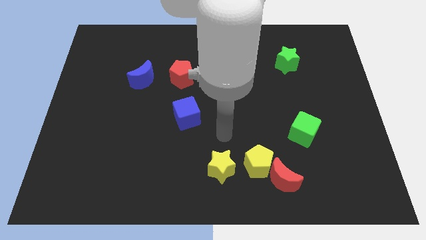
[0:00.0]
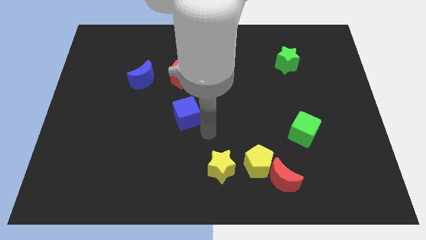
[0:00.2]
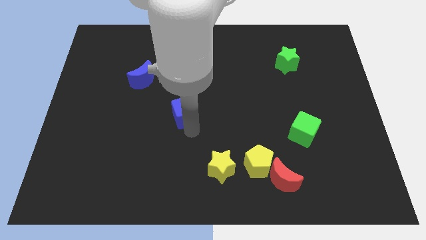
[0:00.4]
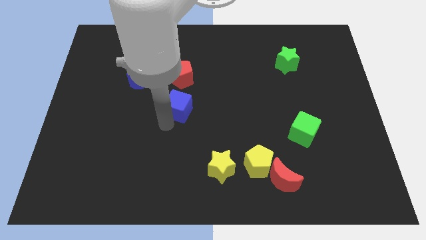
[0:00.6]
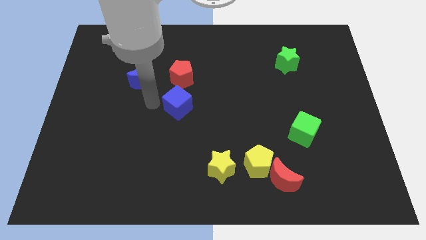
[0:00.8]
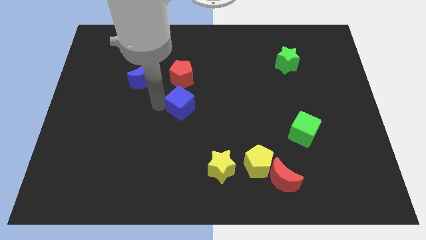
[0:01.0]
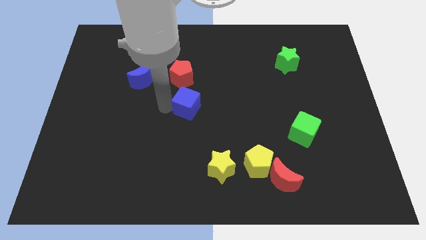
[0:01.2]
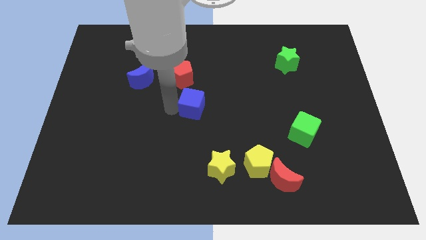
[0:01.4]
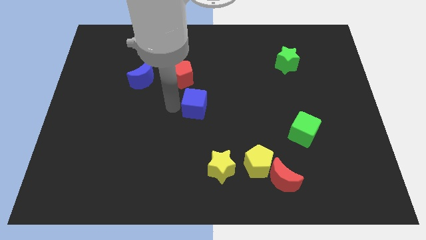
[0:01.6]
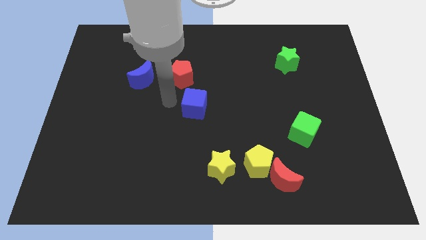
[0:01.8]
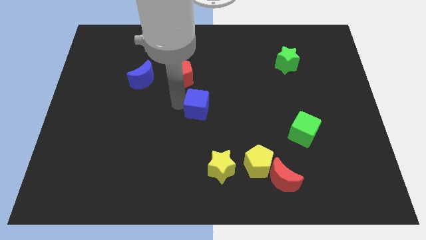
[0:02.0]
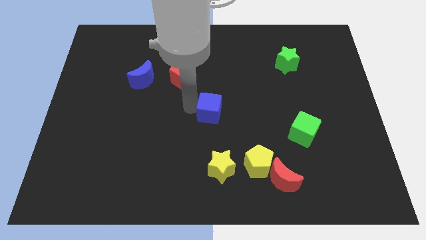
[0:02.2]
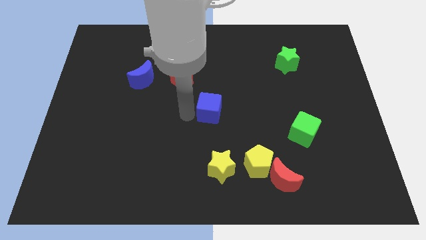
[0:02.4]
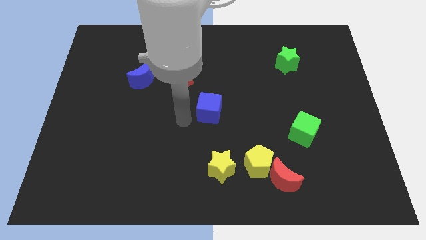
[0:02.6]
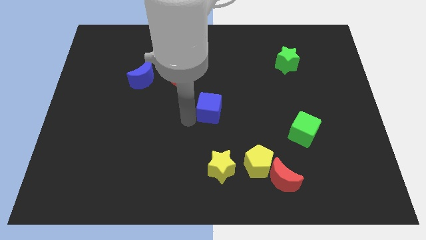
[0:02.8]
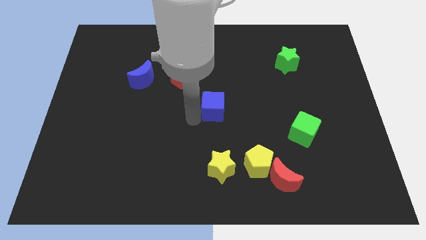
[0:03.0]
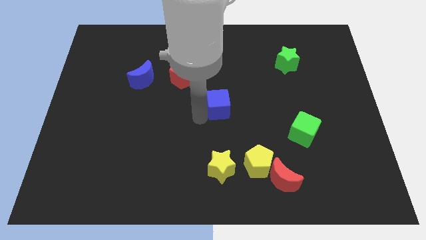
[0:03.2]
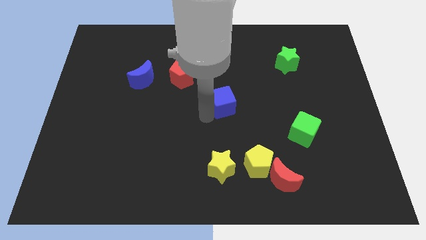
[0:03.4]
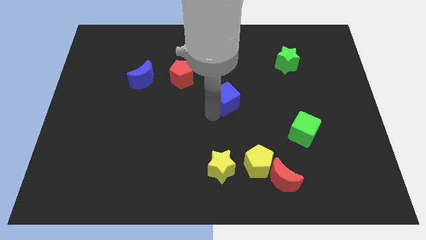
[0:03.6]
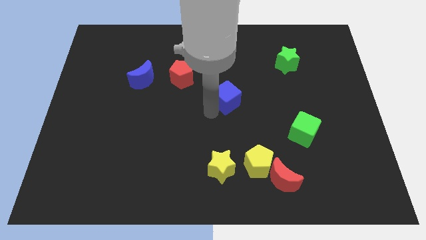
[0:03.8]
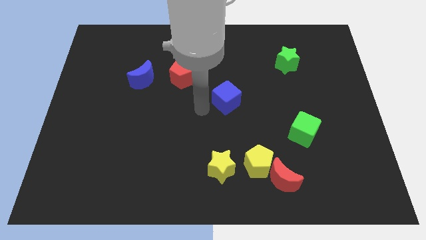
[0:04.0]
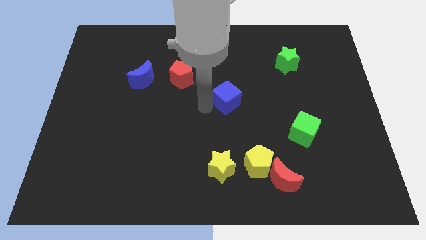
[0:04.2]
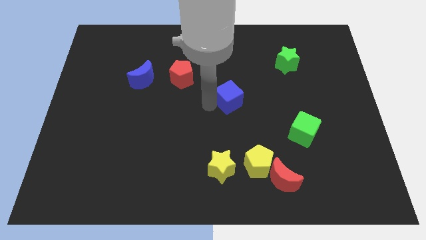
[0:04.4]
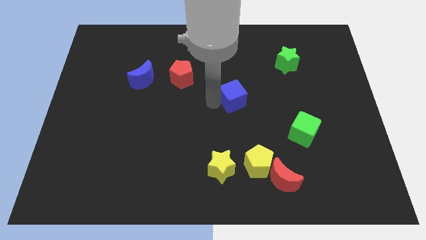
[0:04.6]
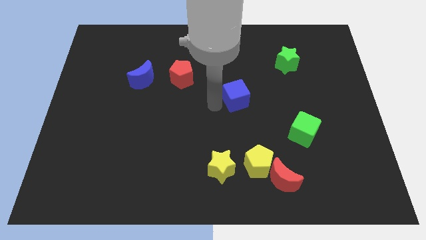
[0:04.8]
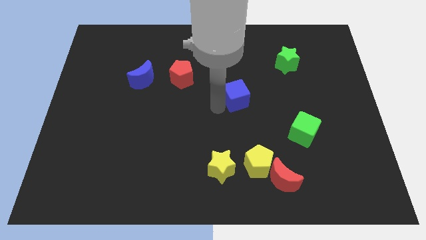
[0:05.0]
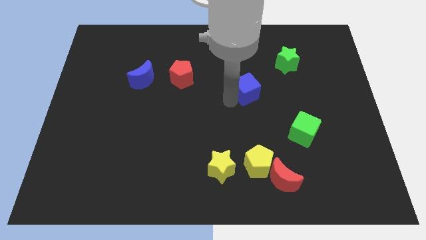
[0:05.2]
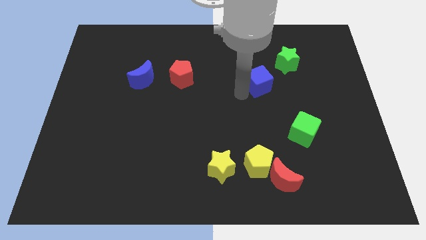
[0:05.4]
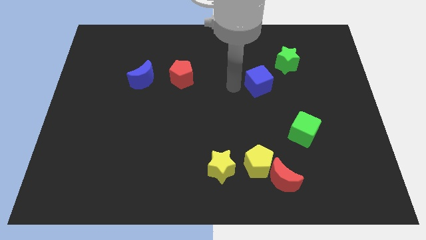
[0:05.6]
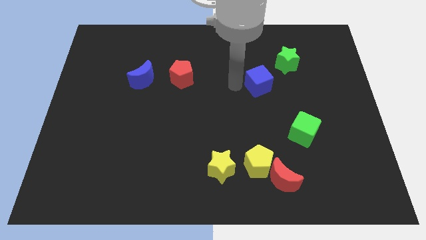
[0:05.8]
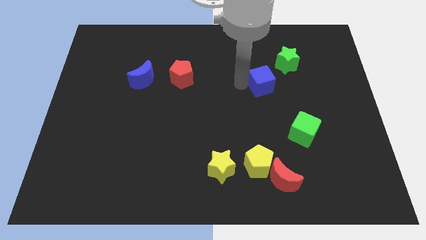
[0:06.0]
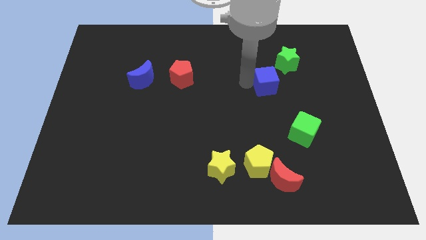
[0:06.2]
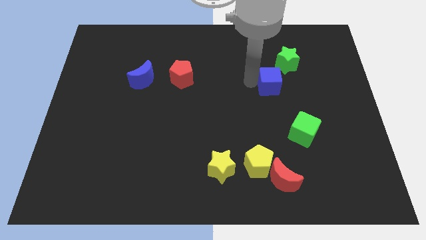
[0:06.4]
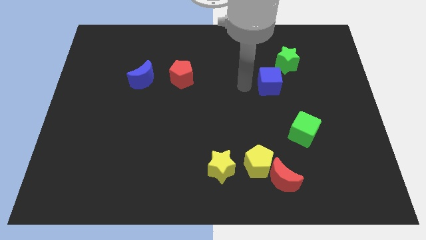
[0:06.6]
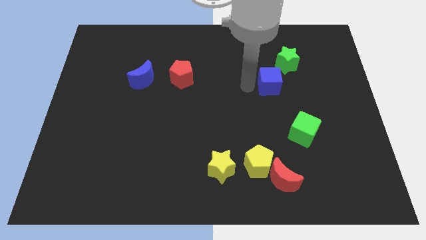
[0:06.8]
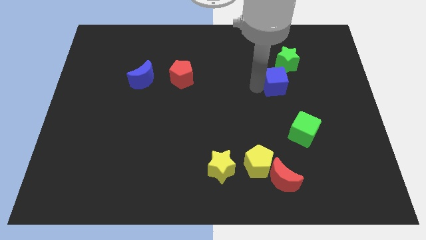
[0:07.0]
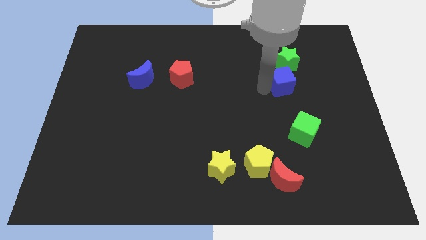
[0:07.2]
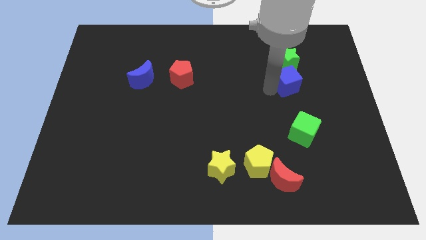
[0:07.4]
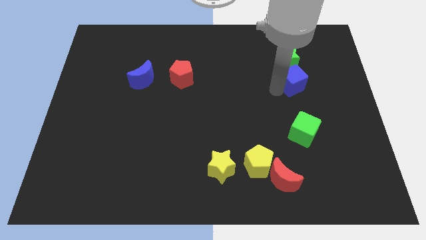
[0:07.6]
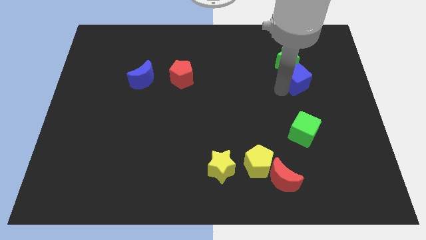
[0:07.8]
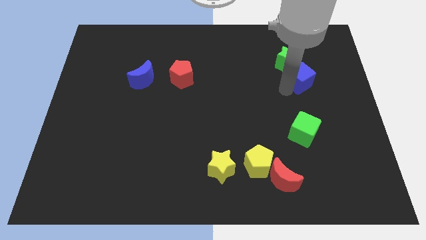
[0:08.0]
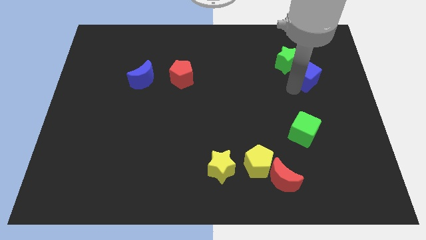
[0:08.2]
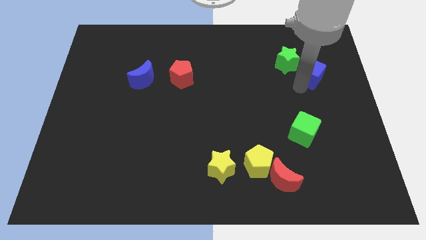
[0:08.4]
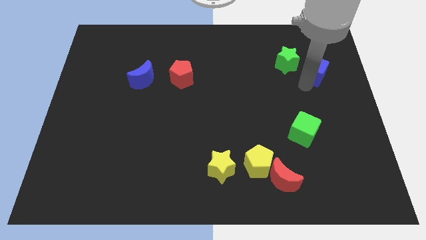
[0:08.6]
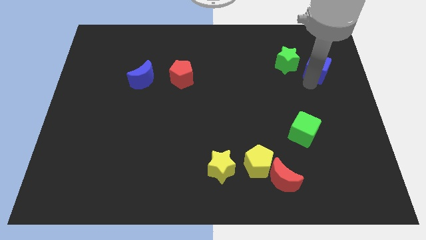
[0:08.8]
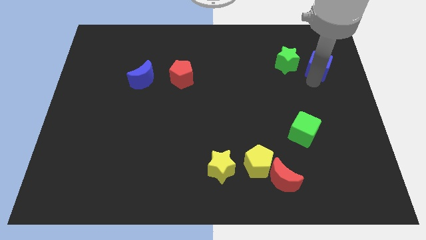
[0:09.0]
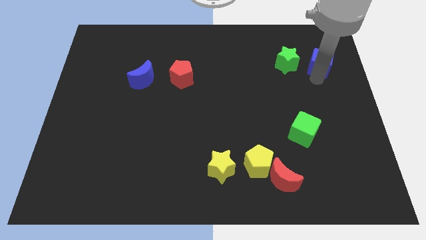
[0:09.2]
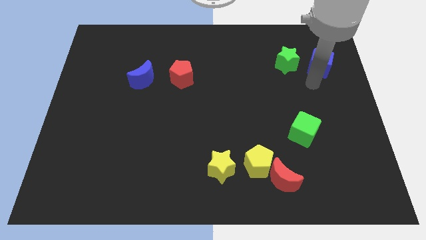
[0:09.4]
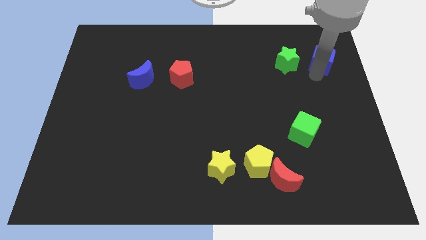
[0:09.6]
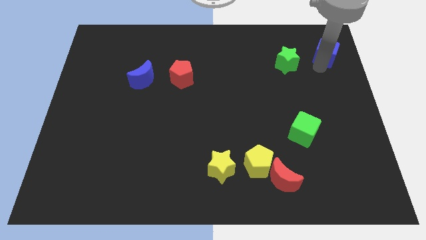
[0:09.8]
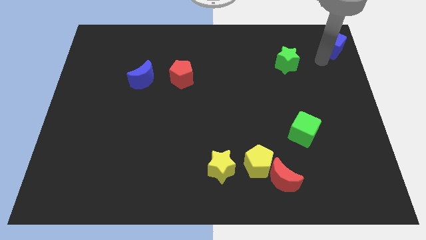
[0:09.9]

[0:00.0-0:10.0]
move the blue cube to the top right of the board

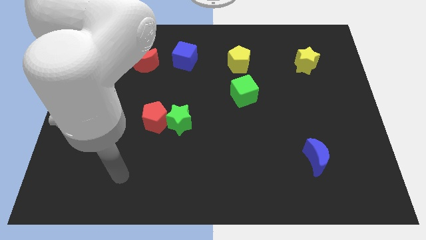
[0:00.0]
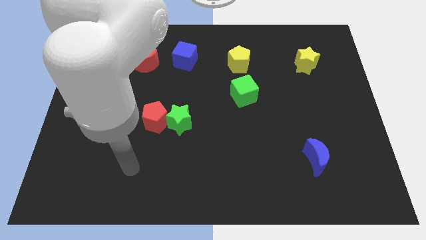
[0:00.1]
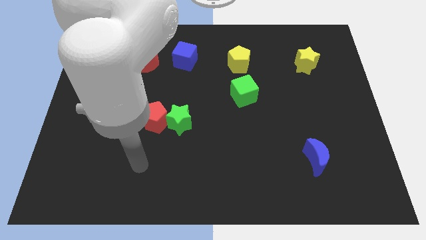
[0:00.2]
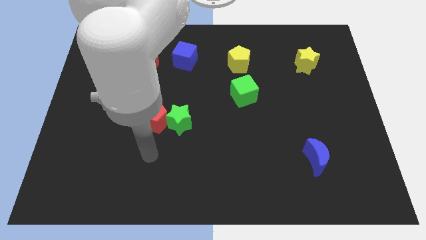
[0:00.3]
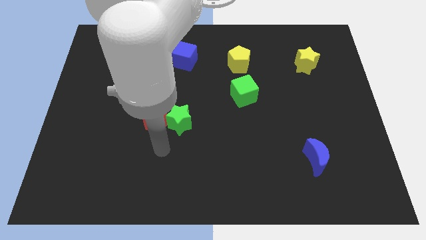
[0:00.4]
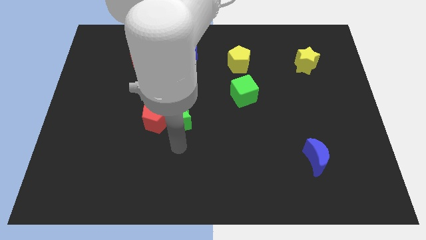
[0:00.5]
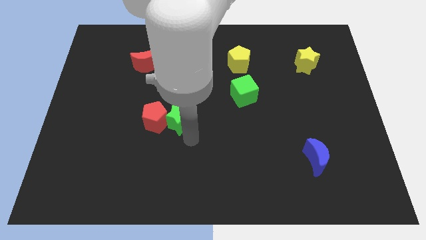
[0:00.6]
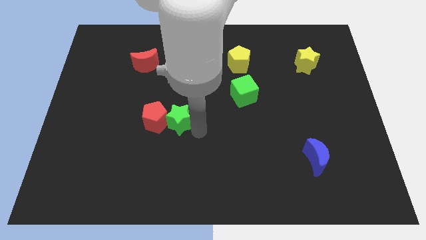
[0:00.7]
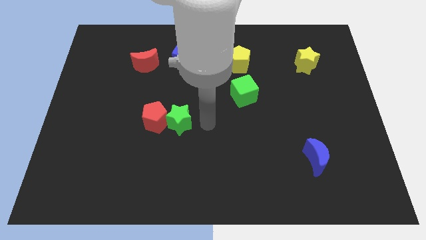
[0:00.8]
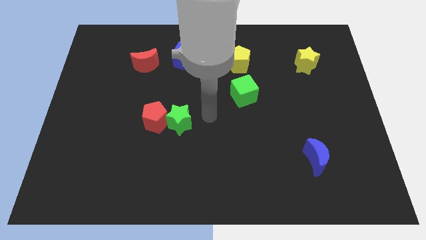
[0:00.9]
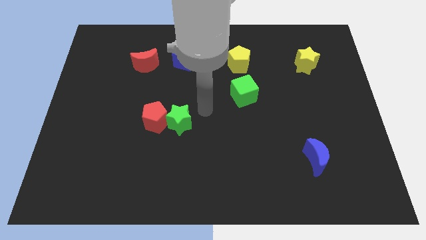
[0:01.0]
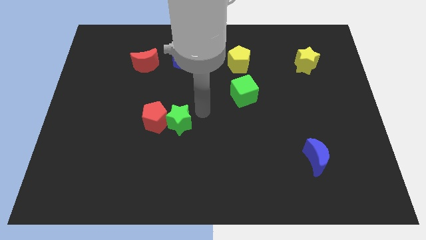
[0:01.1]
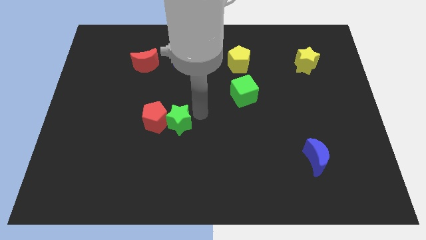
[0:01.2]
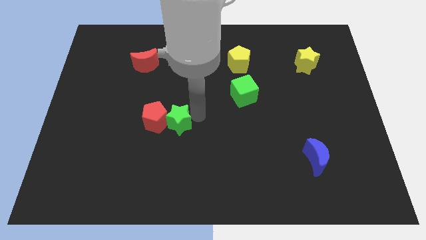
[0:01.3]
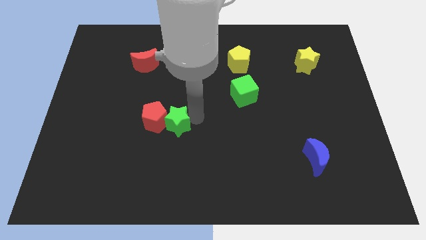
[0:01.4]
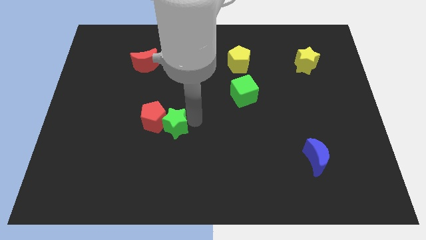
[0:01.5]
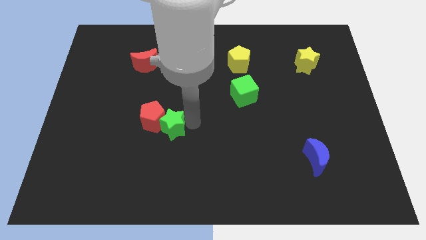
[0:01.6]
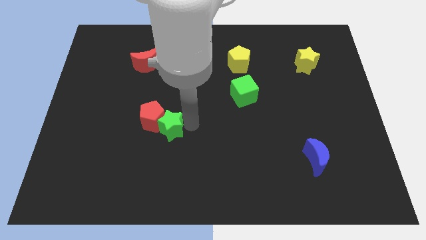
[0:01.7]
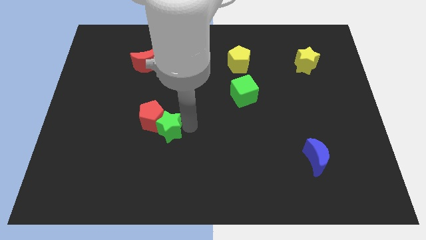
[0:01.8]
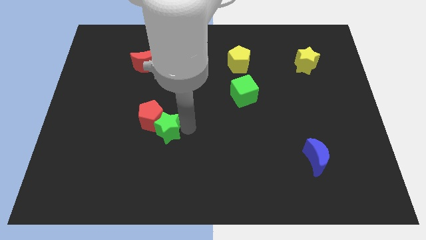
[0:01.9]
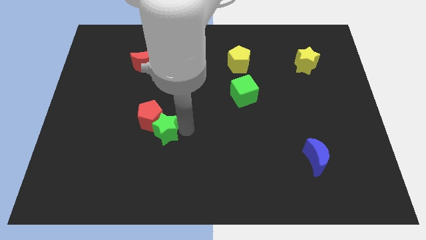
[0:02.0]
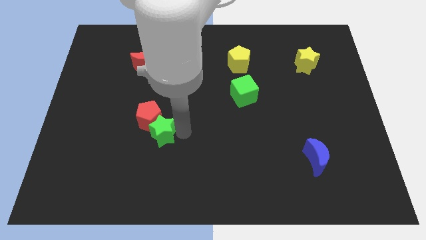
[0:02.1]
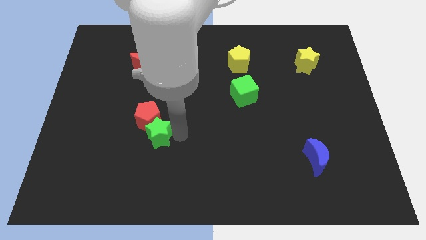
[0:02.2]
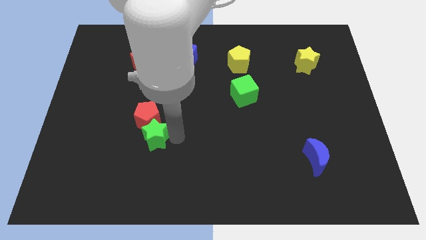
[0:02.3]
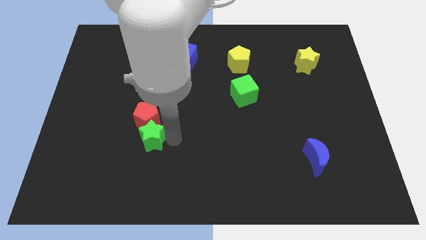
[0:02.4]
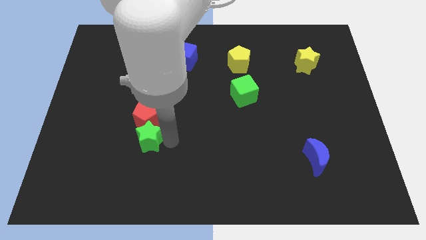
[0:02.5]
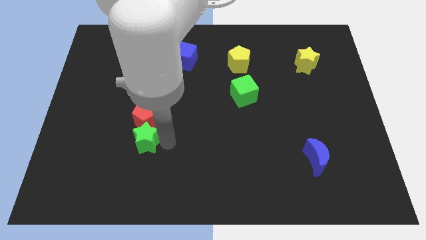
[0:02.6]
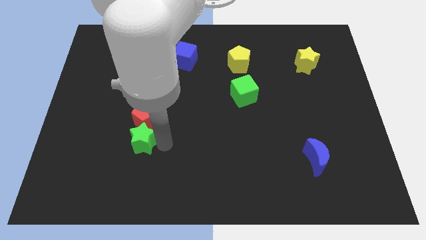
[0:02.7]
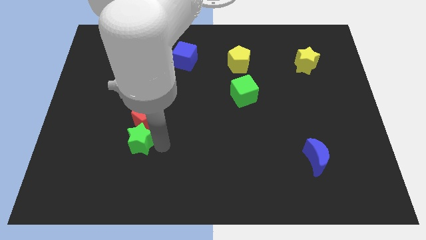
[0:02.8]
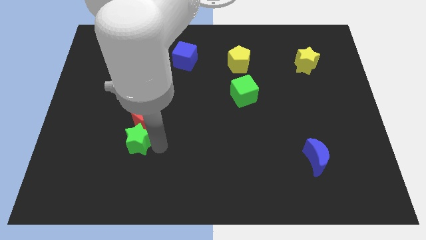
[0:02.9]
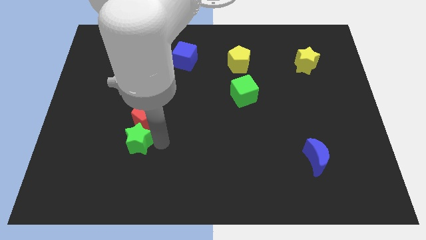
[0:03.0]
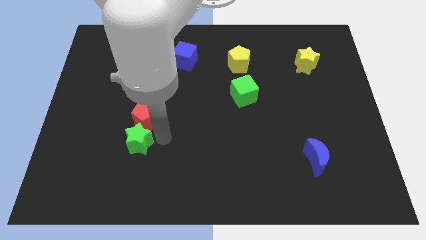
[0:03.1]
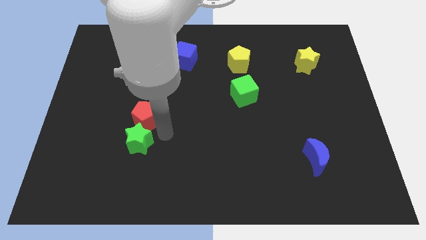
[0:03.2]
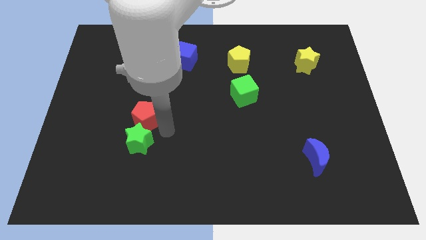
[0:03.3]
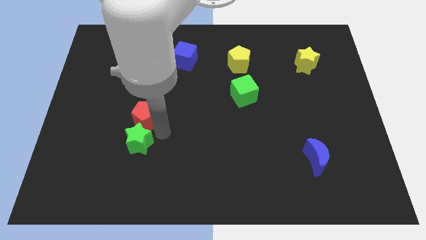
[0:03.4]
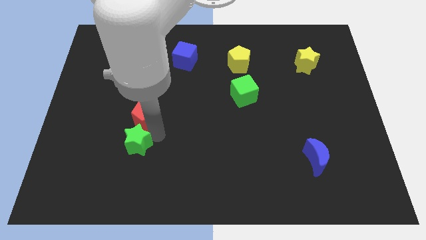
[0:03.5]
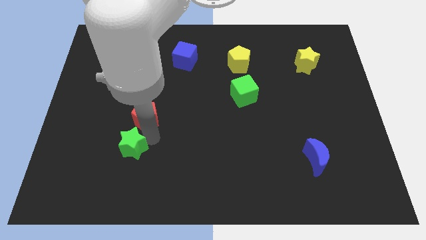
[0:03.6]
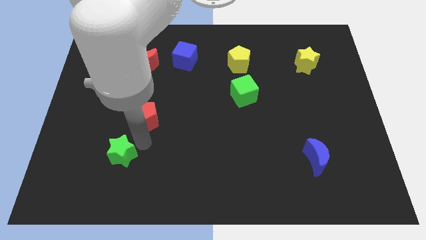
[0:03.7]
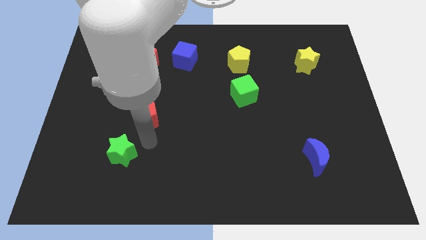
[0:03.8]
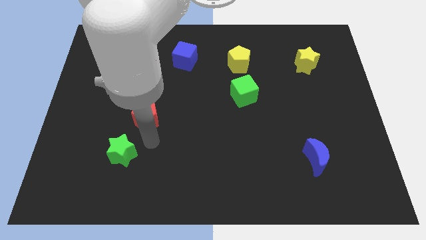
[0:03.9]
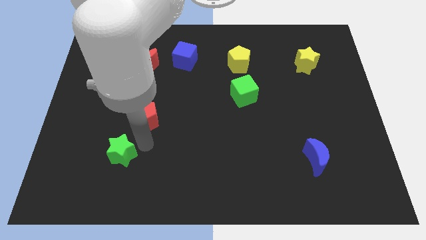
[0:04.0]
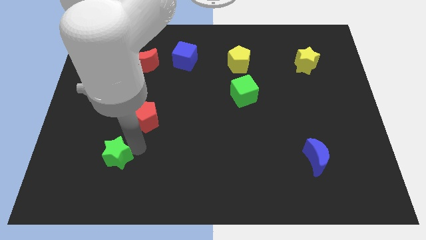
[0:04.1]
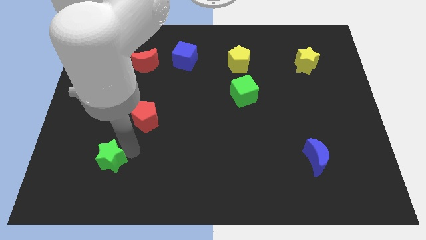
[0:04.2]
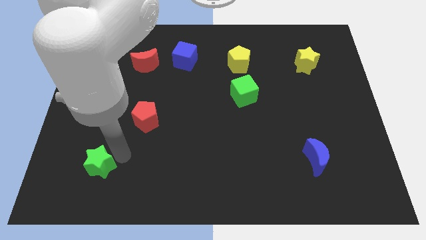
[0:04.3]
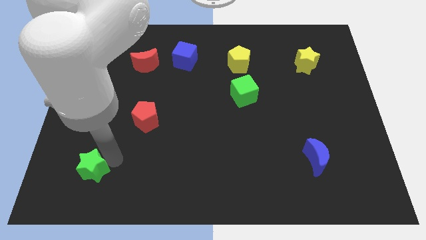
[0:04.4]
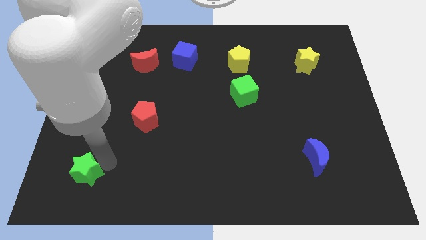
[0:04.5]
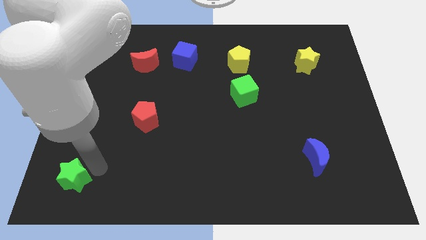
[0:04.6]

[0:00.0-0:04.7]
slide the green star to the bottom left corner
